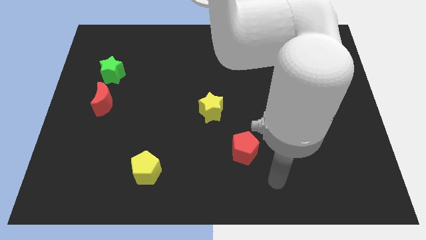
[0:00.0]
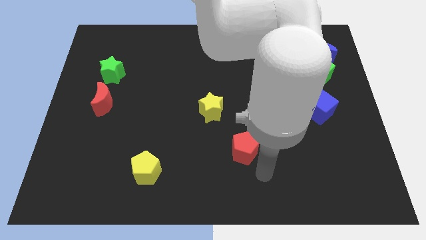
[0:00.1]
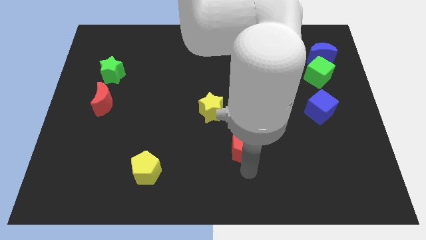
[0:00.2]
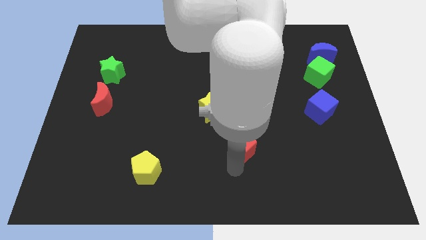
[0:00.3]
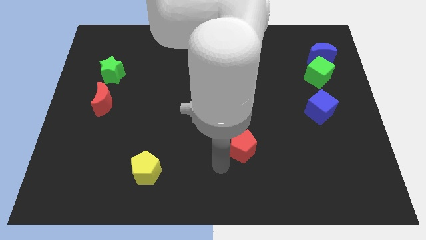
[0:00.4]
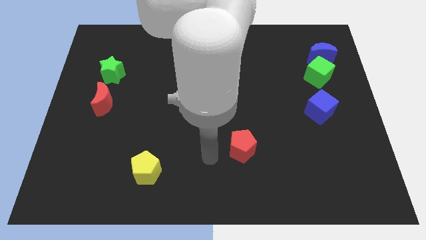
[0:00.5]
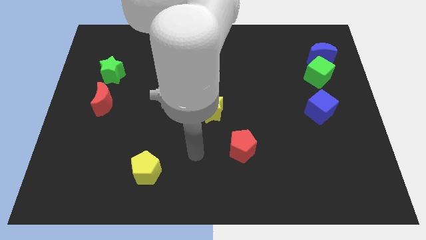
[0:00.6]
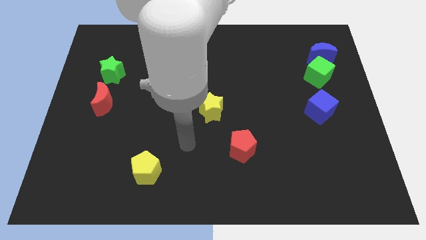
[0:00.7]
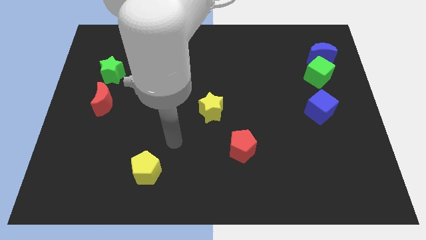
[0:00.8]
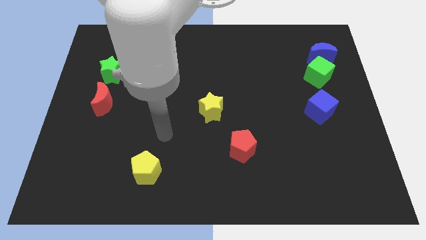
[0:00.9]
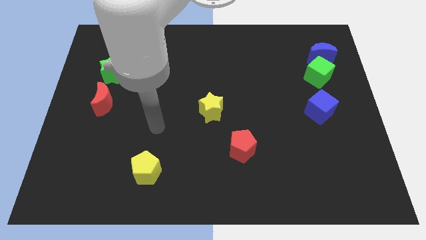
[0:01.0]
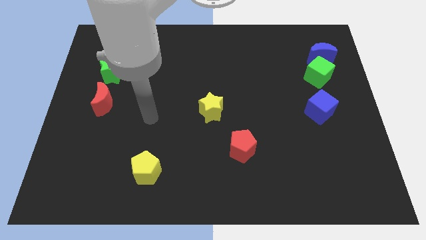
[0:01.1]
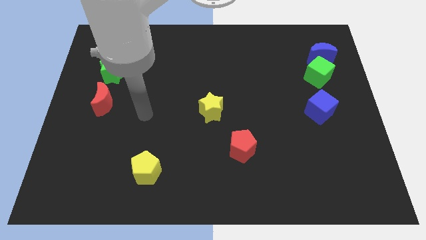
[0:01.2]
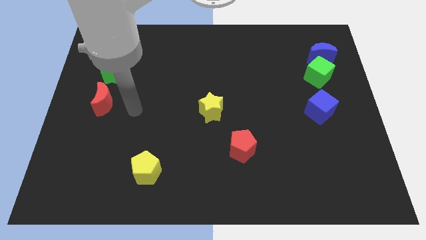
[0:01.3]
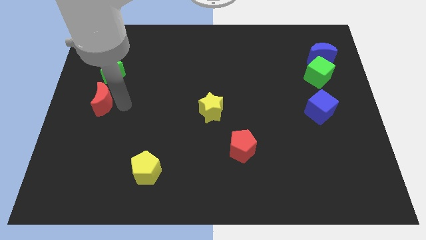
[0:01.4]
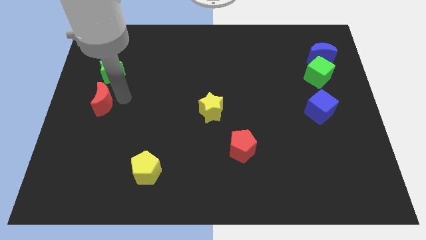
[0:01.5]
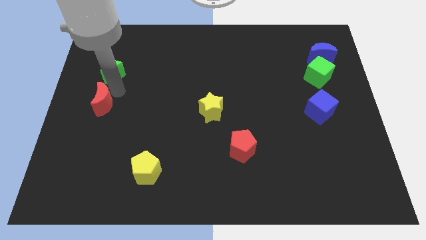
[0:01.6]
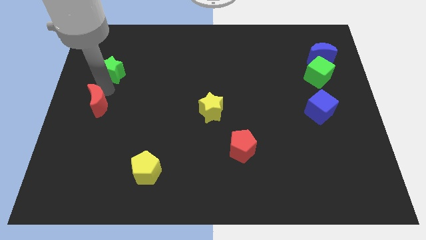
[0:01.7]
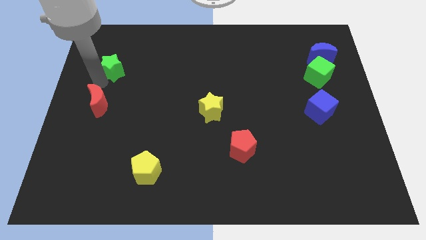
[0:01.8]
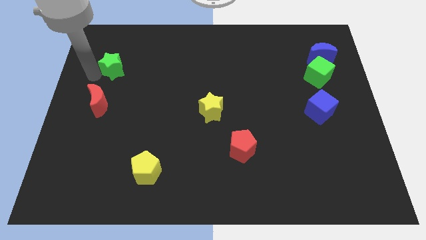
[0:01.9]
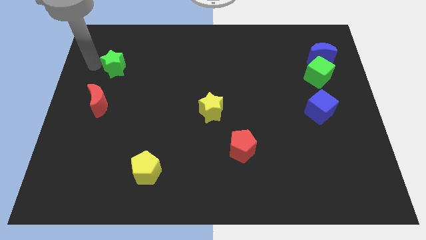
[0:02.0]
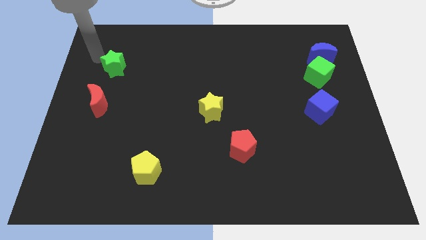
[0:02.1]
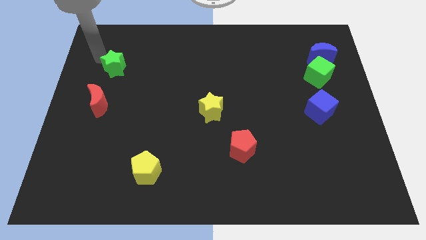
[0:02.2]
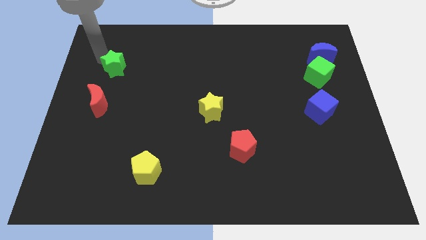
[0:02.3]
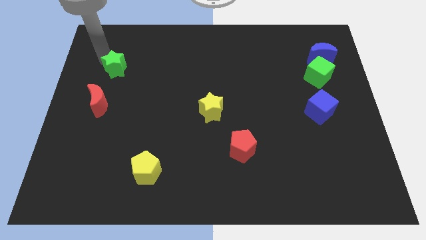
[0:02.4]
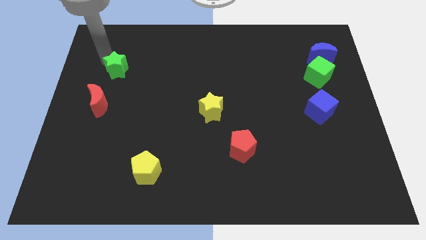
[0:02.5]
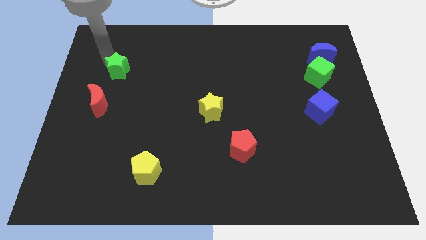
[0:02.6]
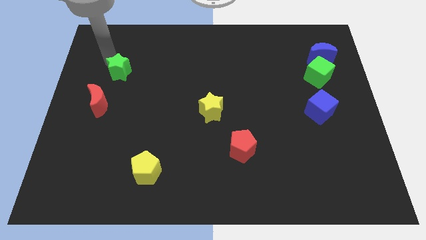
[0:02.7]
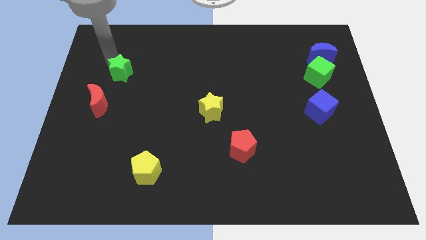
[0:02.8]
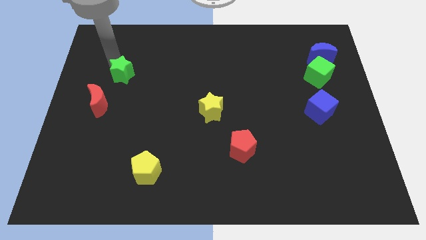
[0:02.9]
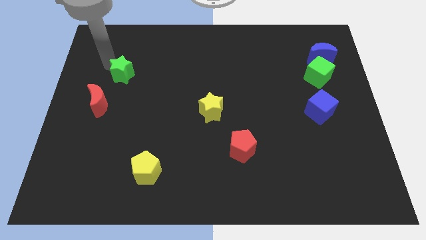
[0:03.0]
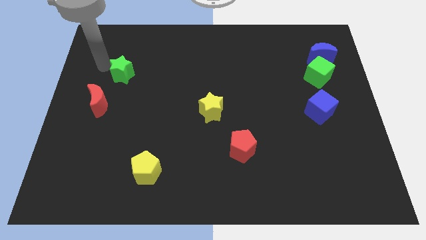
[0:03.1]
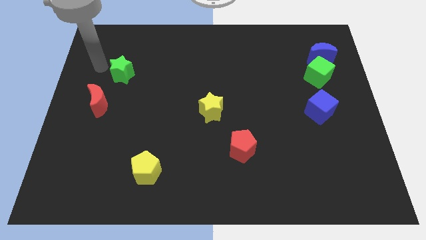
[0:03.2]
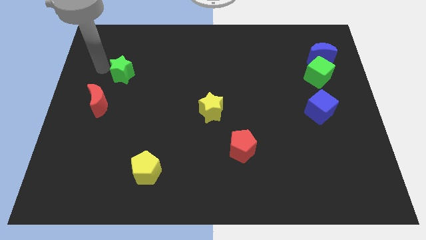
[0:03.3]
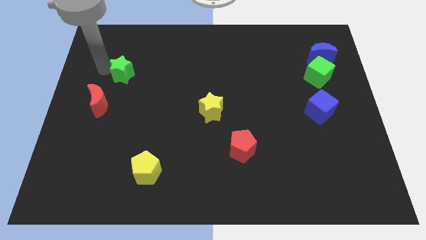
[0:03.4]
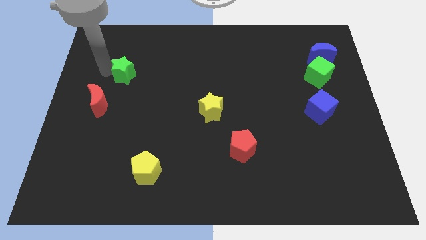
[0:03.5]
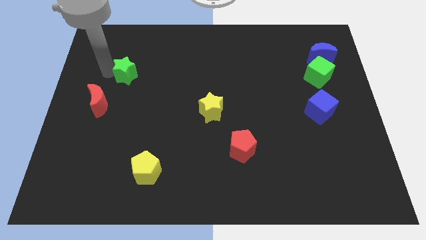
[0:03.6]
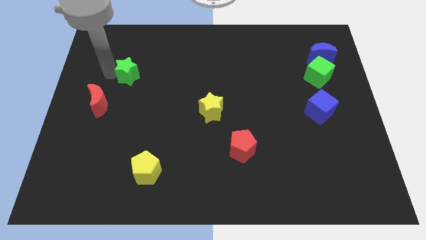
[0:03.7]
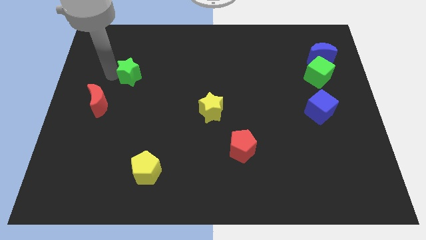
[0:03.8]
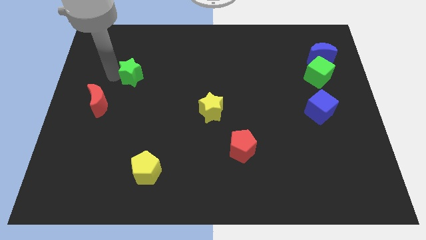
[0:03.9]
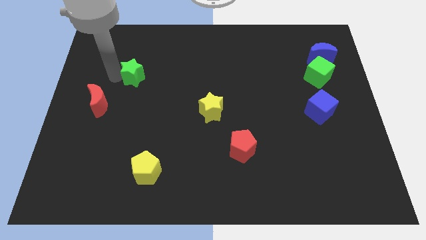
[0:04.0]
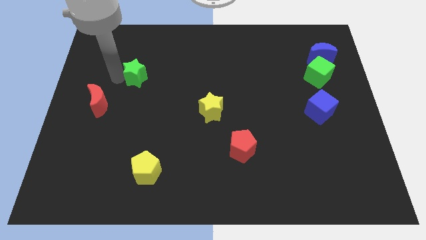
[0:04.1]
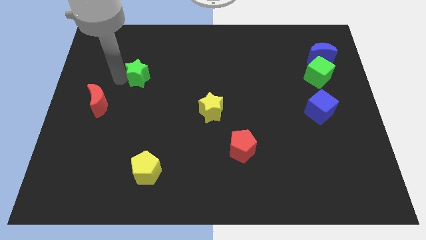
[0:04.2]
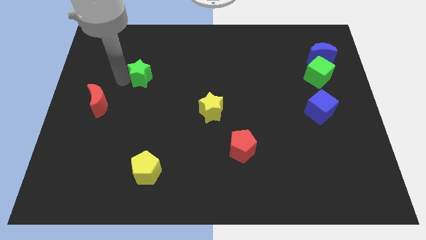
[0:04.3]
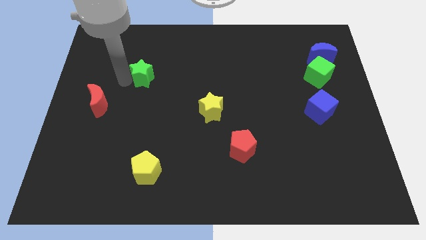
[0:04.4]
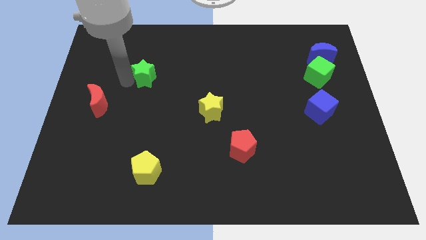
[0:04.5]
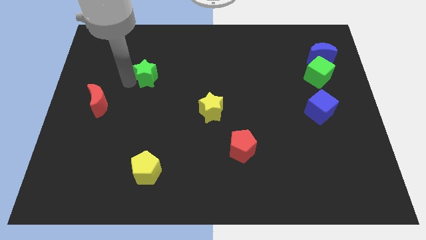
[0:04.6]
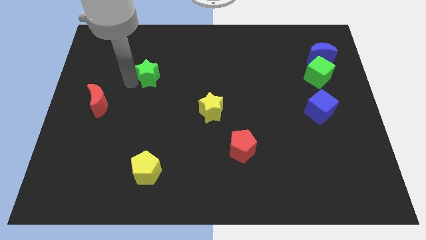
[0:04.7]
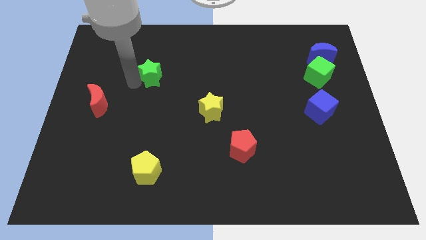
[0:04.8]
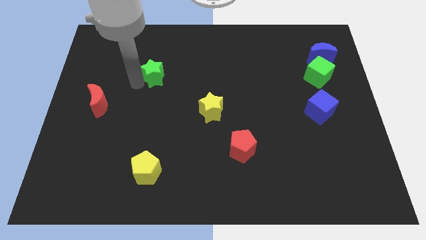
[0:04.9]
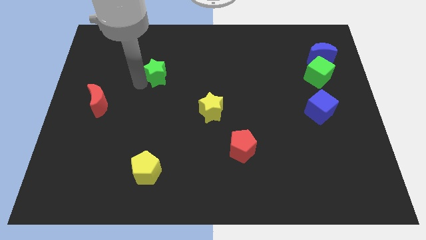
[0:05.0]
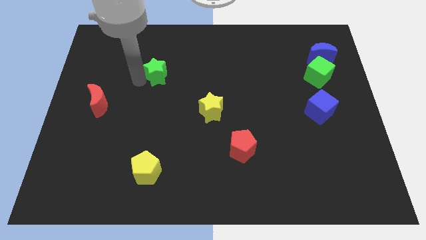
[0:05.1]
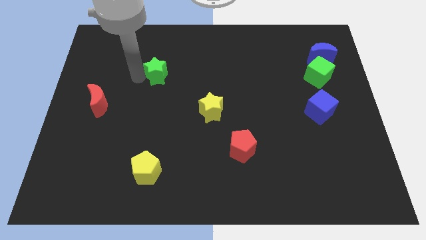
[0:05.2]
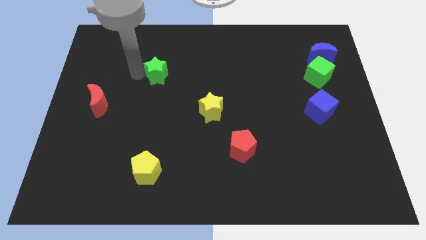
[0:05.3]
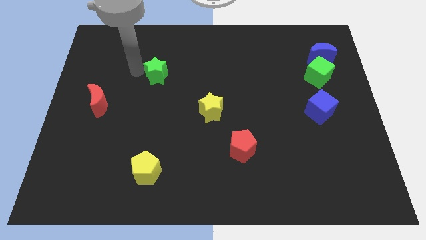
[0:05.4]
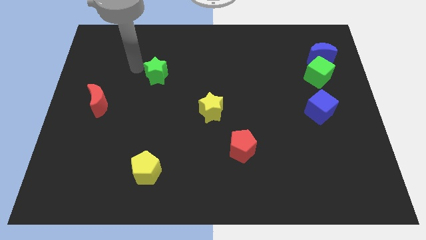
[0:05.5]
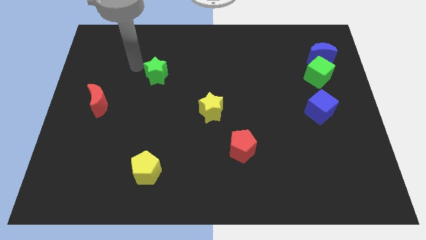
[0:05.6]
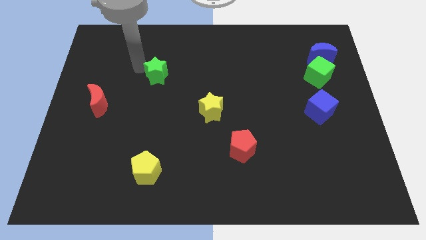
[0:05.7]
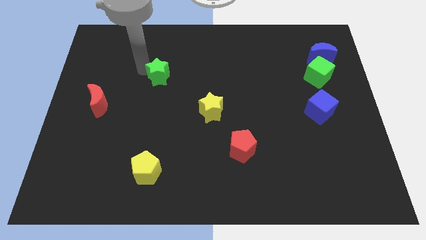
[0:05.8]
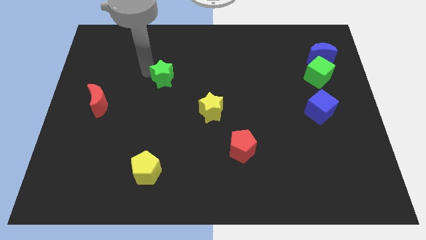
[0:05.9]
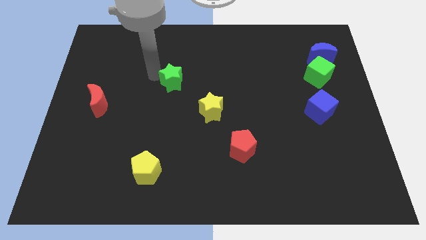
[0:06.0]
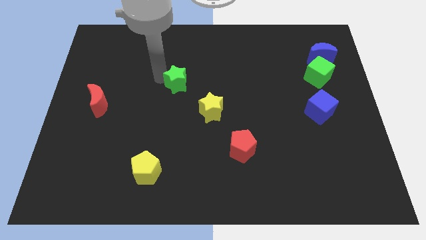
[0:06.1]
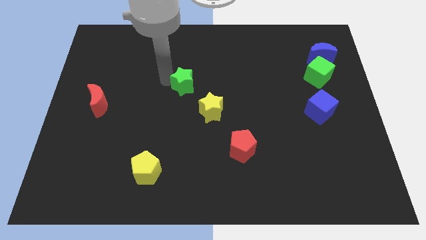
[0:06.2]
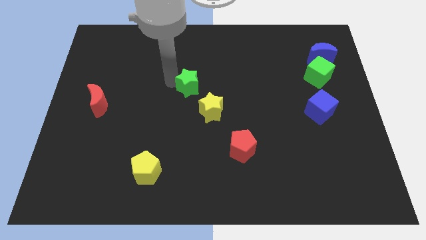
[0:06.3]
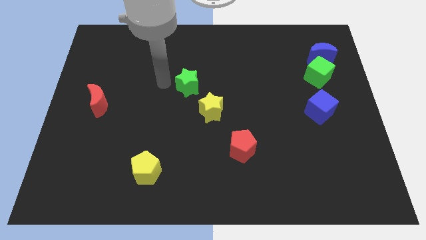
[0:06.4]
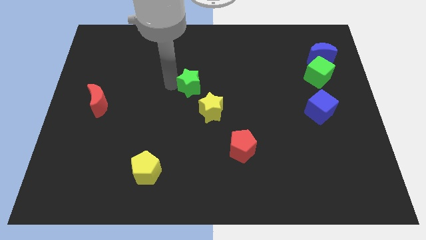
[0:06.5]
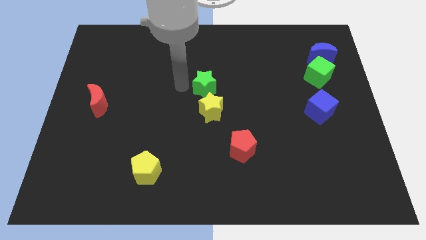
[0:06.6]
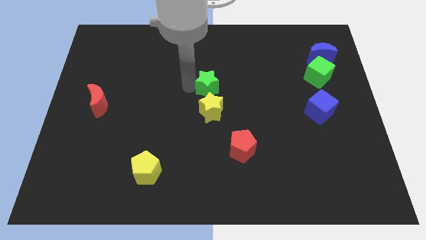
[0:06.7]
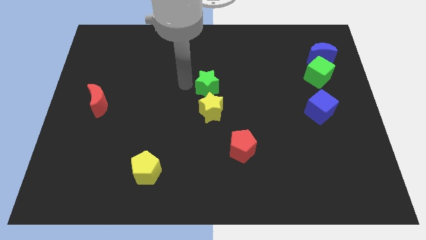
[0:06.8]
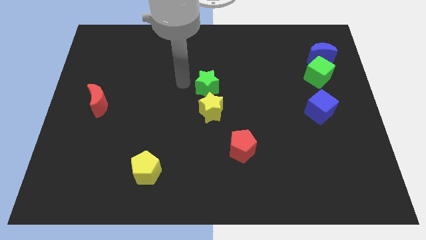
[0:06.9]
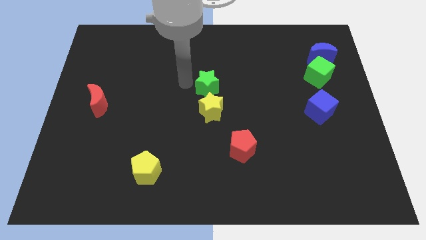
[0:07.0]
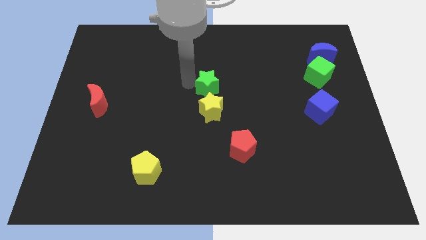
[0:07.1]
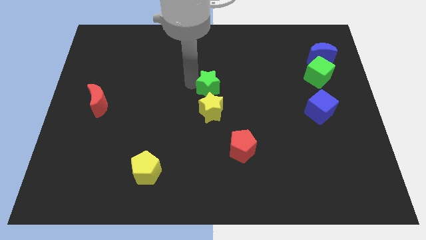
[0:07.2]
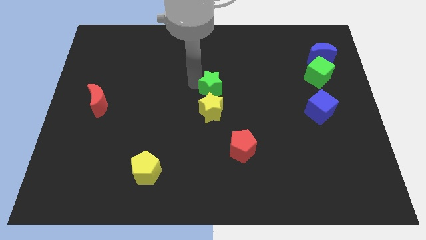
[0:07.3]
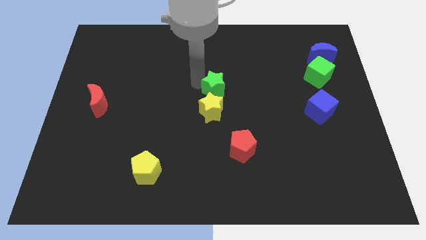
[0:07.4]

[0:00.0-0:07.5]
slide the green star to the top right side of the yellow star

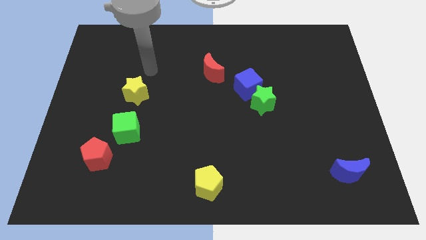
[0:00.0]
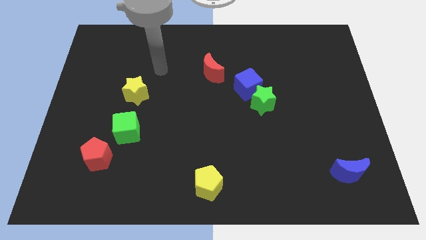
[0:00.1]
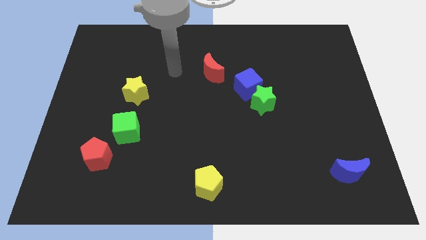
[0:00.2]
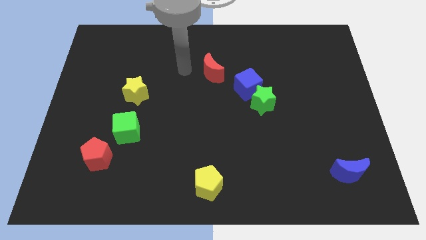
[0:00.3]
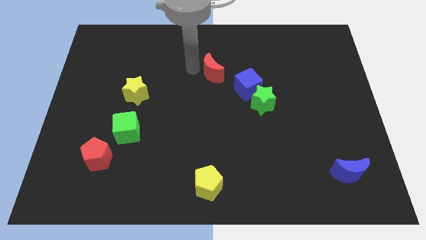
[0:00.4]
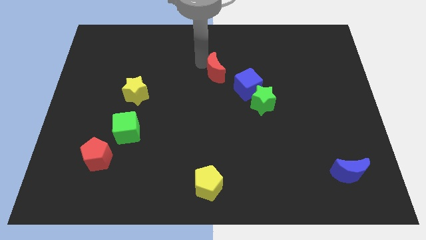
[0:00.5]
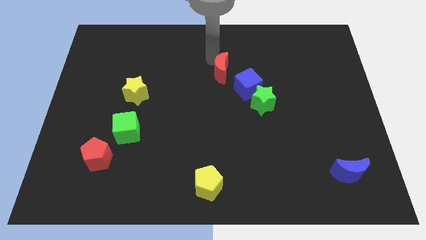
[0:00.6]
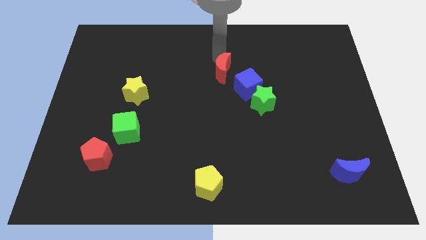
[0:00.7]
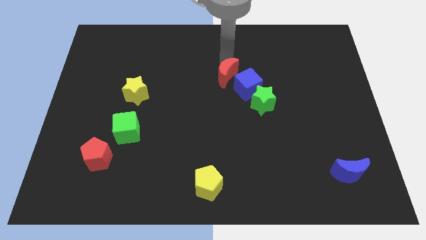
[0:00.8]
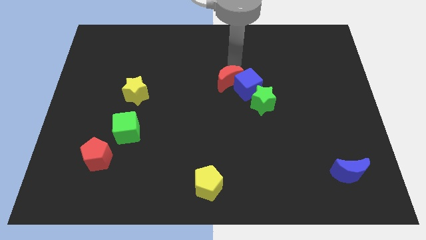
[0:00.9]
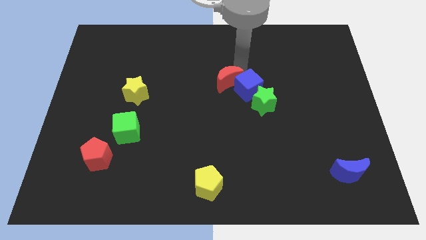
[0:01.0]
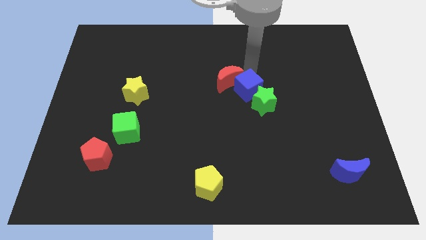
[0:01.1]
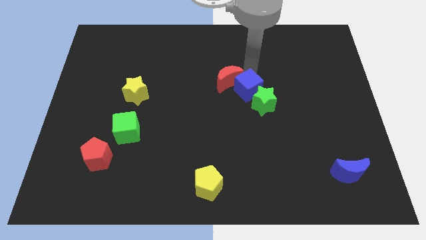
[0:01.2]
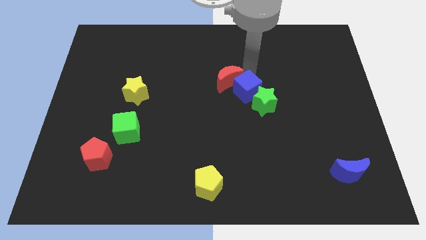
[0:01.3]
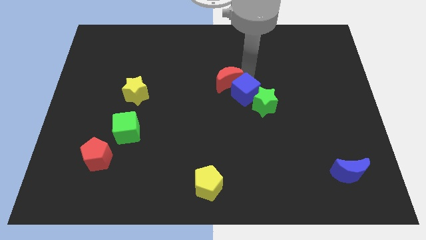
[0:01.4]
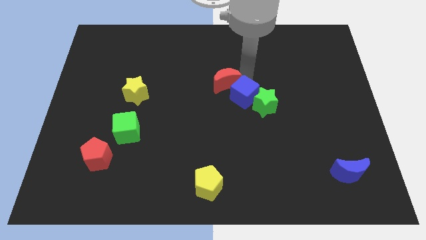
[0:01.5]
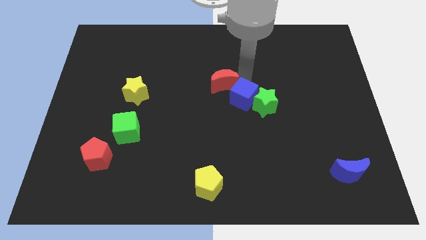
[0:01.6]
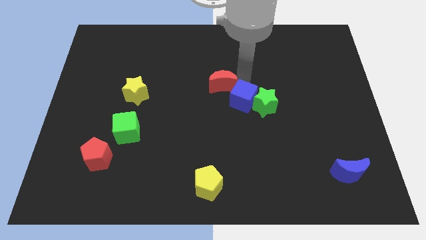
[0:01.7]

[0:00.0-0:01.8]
push the blue cube diagonally down and to the left of the green star
